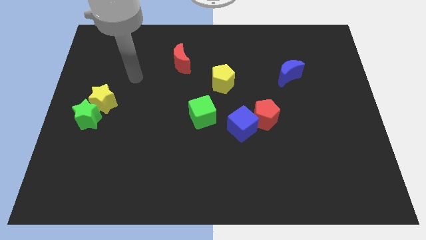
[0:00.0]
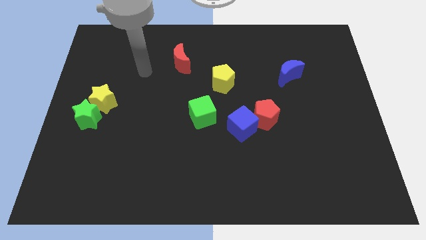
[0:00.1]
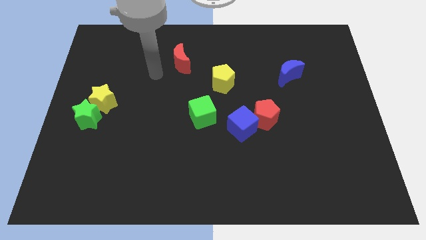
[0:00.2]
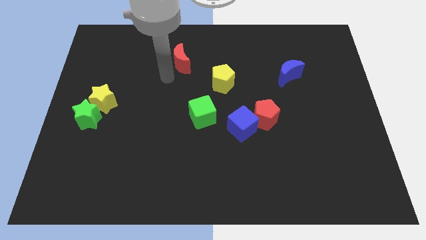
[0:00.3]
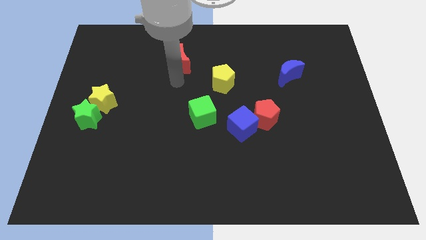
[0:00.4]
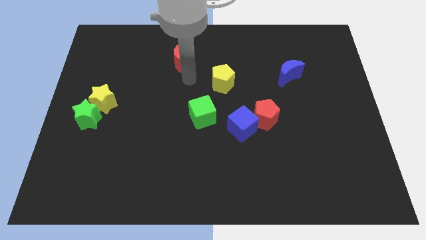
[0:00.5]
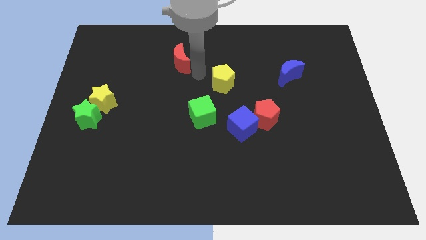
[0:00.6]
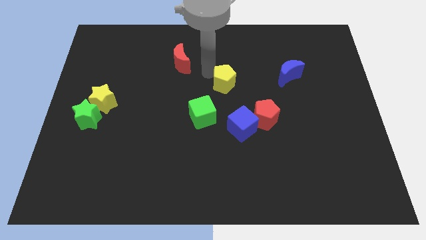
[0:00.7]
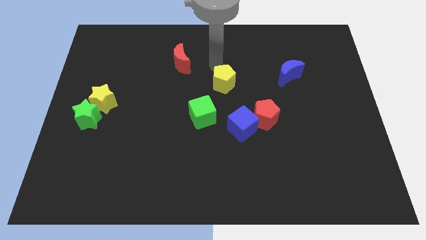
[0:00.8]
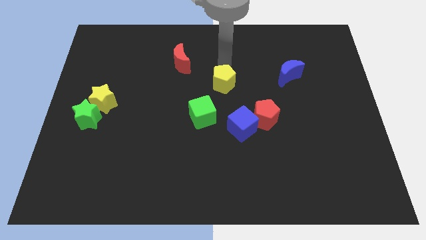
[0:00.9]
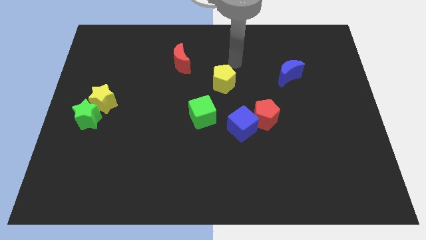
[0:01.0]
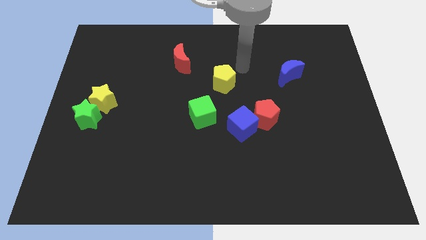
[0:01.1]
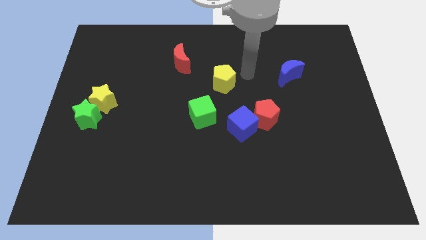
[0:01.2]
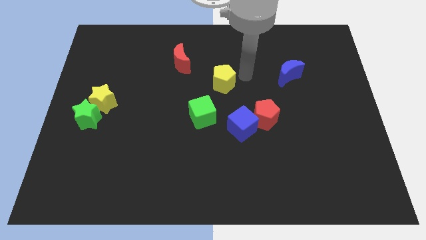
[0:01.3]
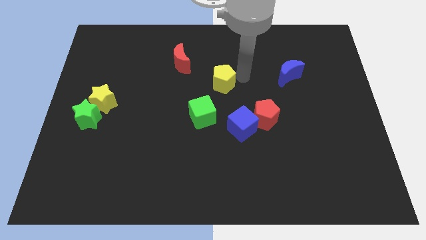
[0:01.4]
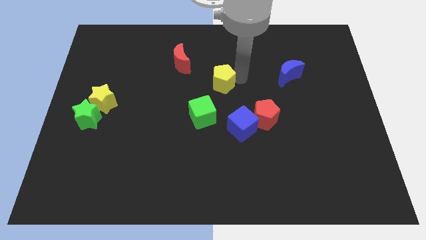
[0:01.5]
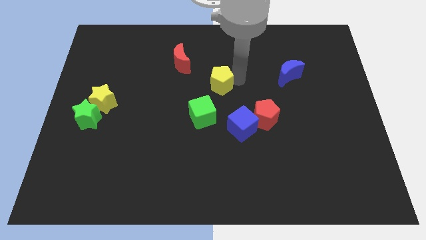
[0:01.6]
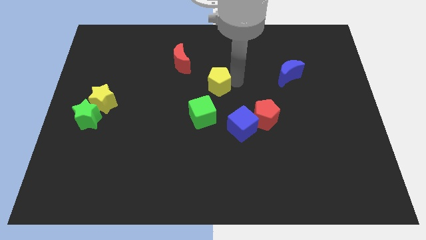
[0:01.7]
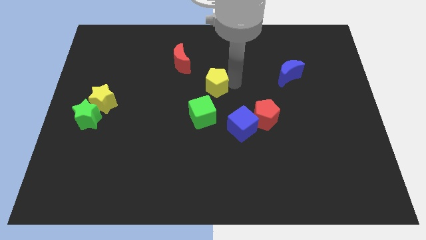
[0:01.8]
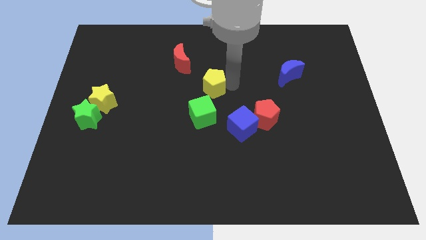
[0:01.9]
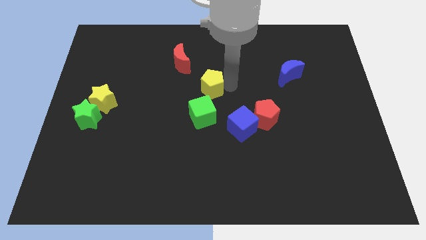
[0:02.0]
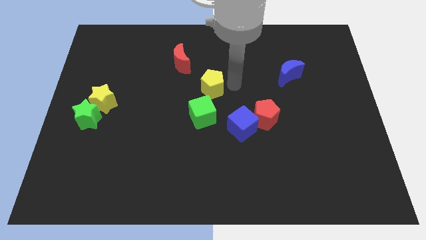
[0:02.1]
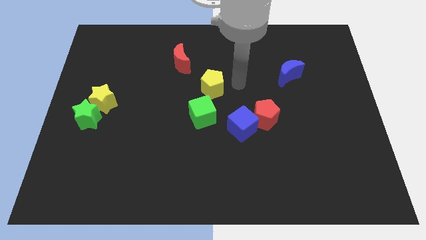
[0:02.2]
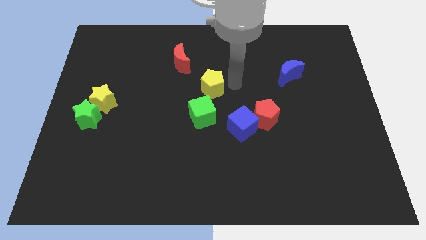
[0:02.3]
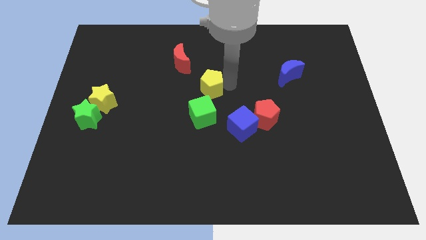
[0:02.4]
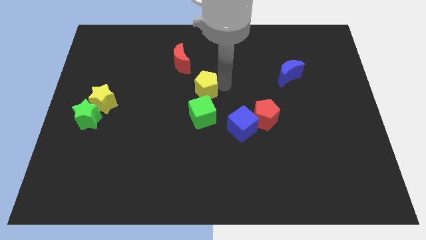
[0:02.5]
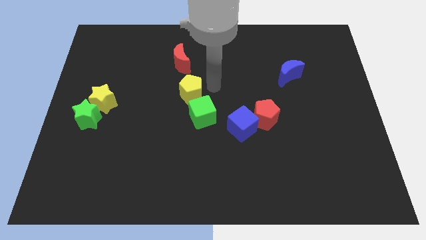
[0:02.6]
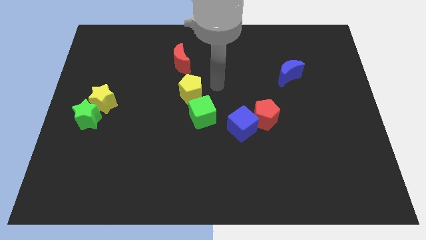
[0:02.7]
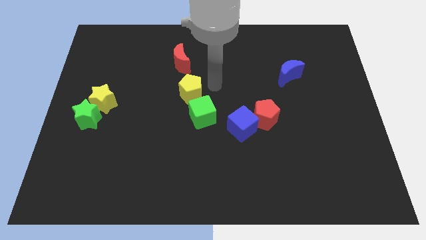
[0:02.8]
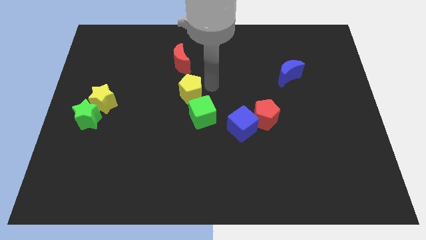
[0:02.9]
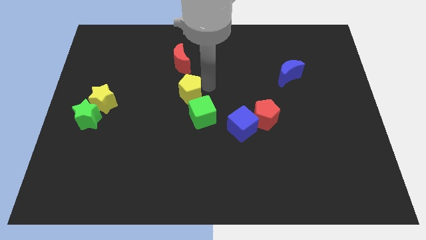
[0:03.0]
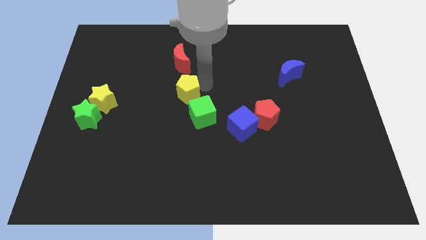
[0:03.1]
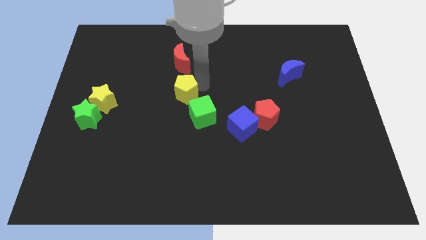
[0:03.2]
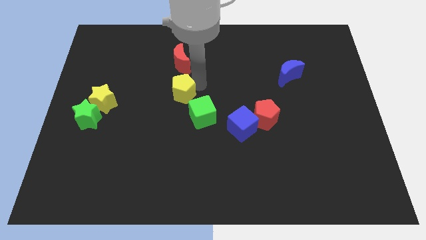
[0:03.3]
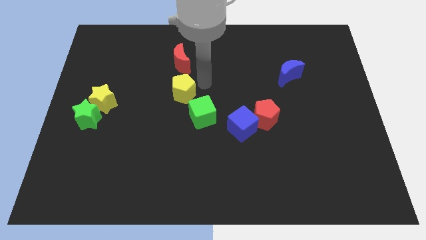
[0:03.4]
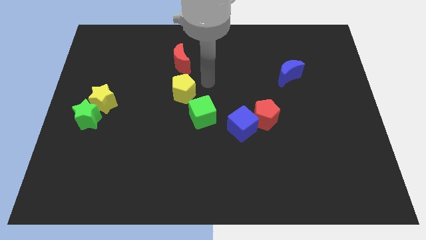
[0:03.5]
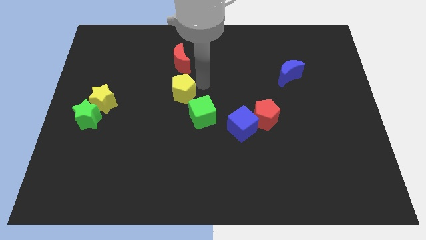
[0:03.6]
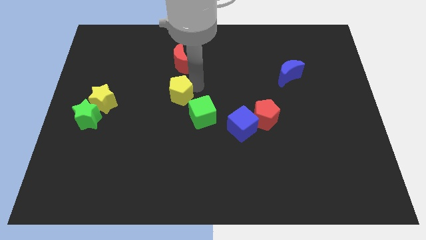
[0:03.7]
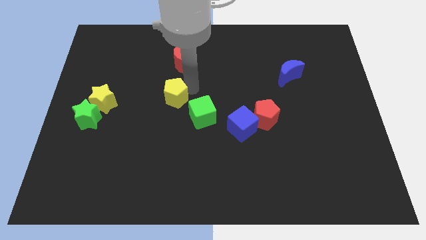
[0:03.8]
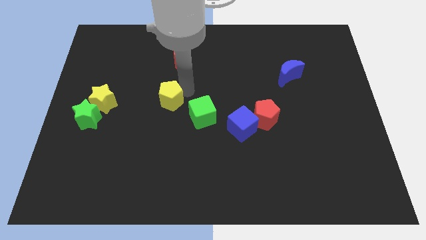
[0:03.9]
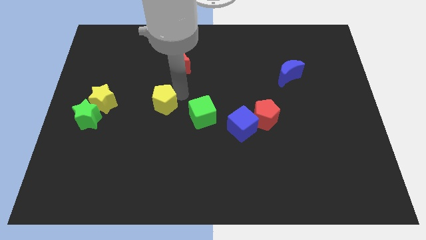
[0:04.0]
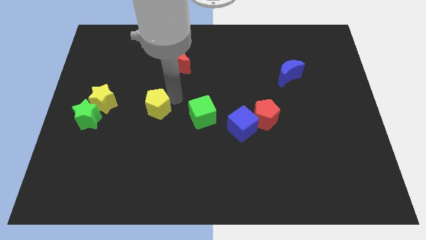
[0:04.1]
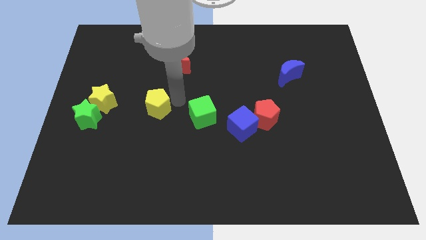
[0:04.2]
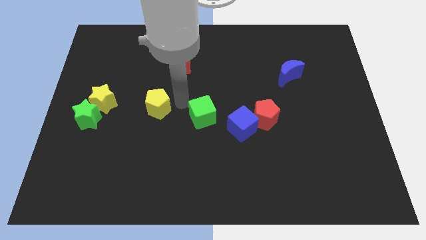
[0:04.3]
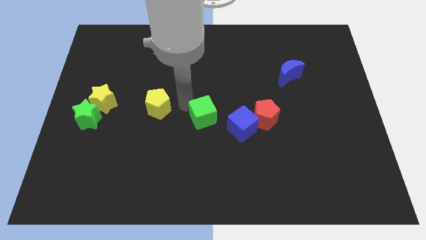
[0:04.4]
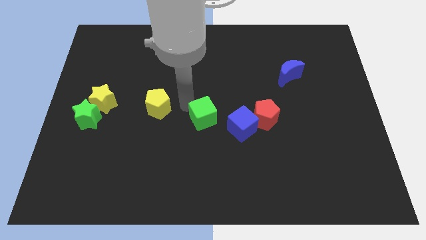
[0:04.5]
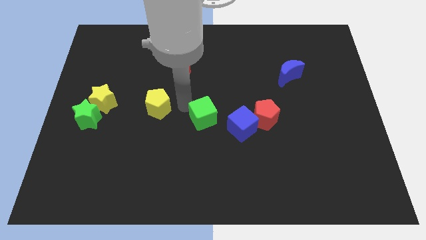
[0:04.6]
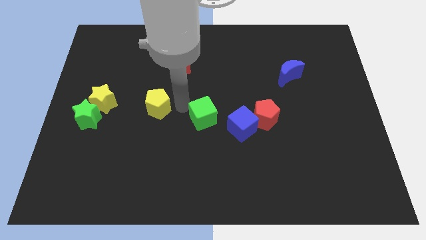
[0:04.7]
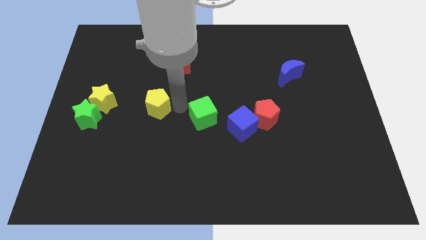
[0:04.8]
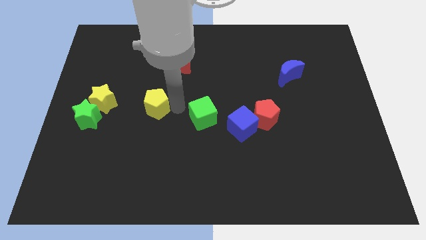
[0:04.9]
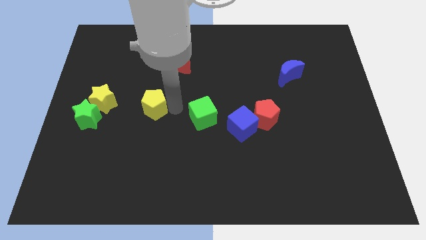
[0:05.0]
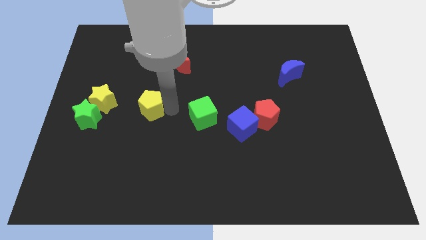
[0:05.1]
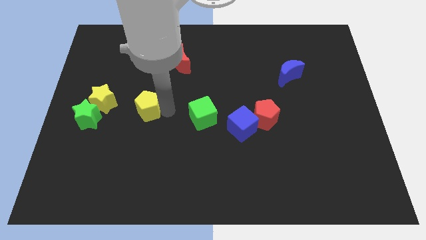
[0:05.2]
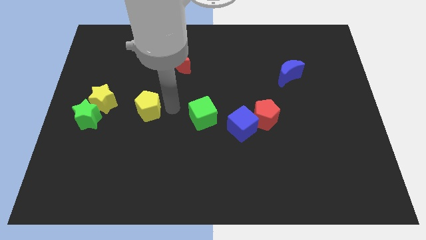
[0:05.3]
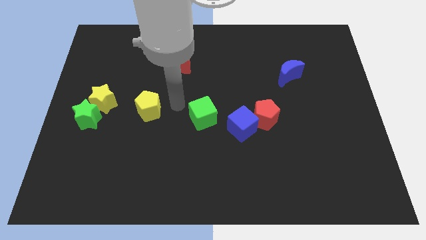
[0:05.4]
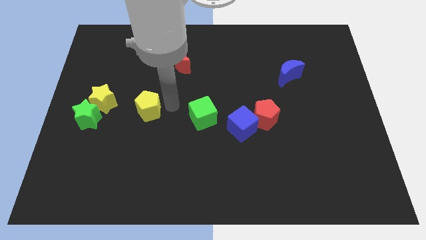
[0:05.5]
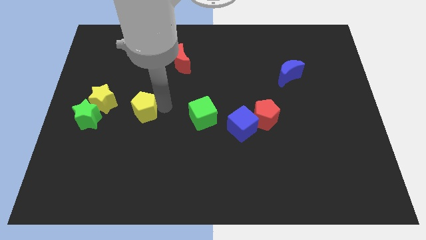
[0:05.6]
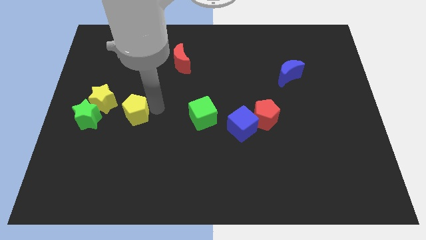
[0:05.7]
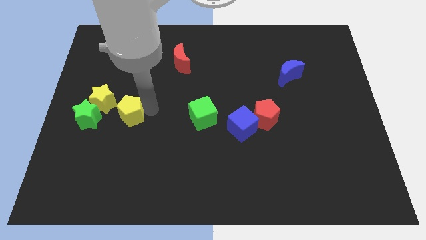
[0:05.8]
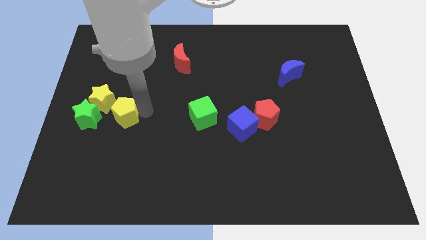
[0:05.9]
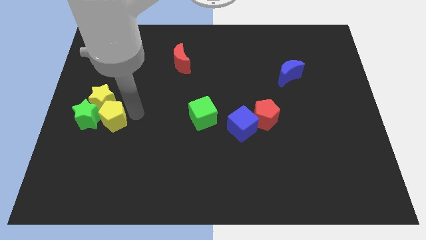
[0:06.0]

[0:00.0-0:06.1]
move the yellow pentagon close to the green star

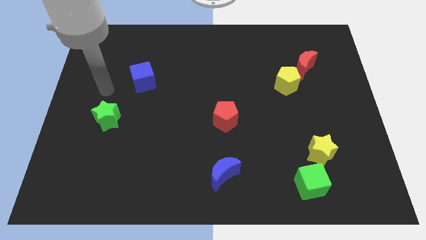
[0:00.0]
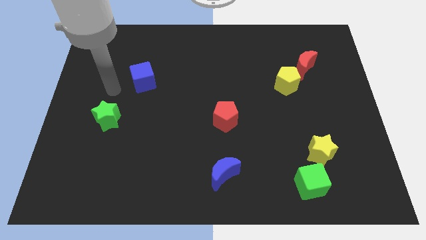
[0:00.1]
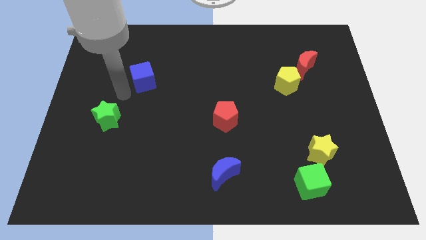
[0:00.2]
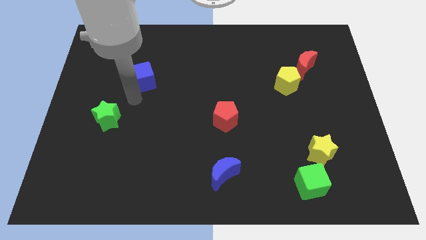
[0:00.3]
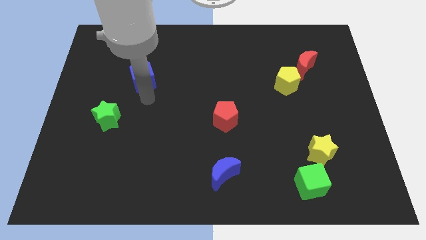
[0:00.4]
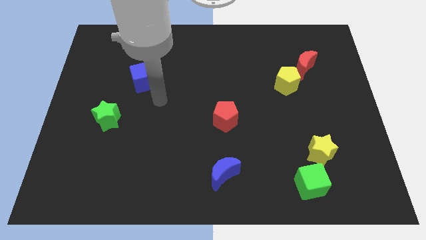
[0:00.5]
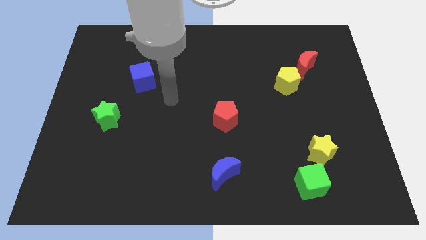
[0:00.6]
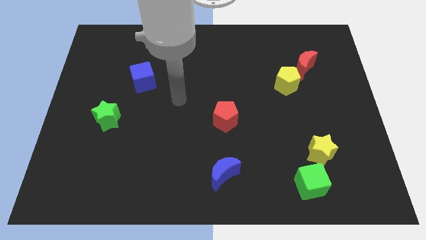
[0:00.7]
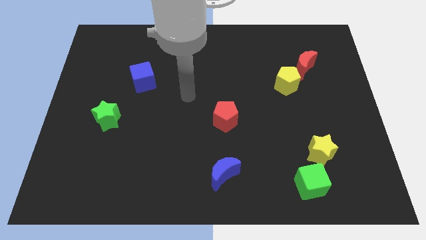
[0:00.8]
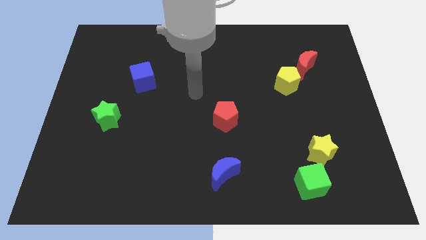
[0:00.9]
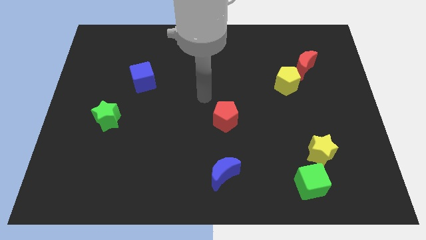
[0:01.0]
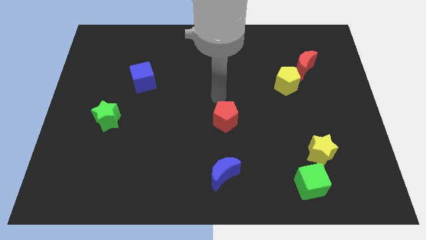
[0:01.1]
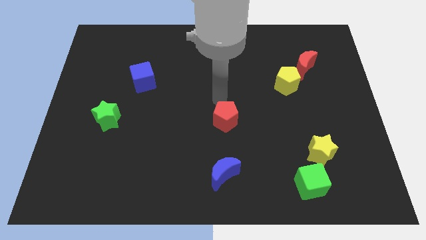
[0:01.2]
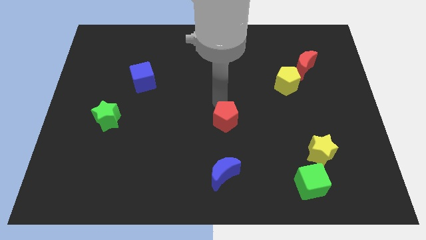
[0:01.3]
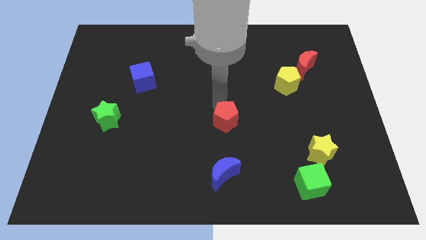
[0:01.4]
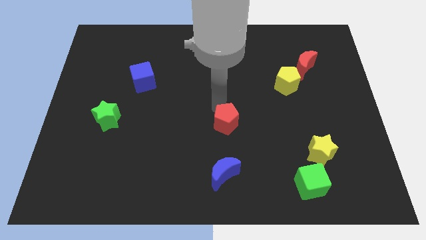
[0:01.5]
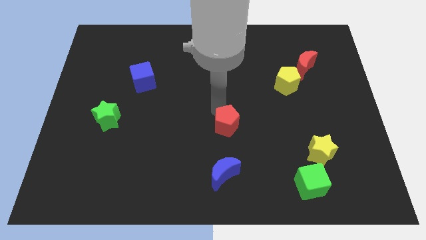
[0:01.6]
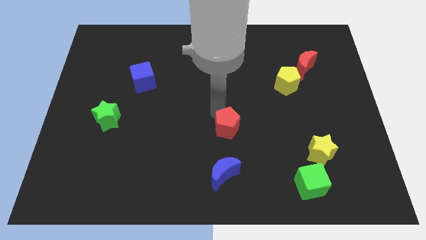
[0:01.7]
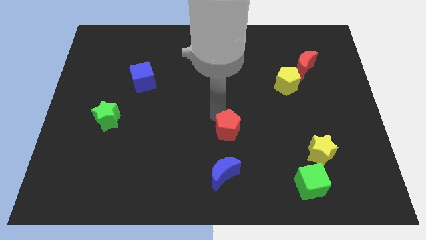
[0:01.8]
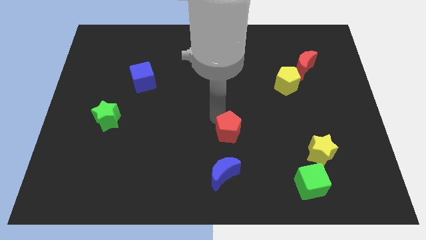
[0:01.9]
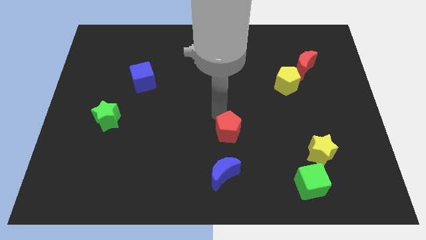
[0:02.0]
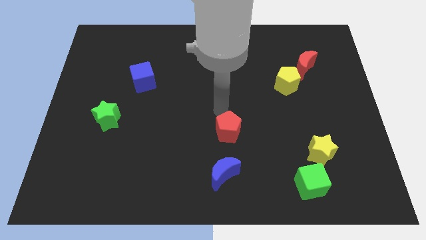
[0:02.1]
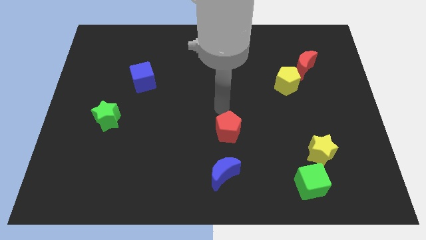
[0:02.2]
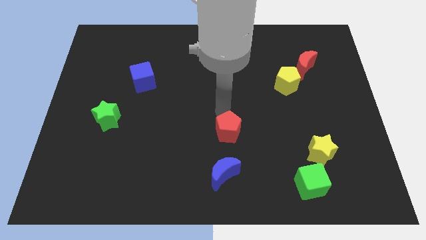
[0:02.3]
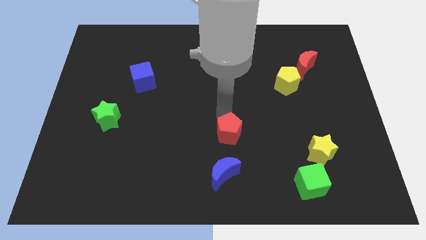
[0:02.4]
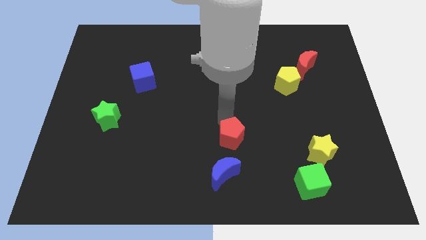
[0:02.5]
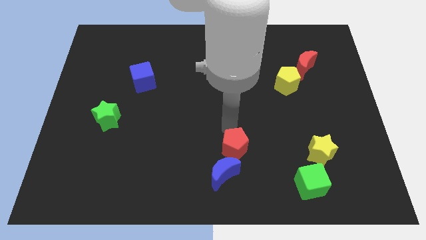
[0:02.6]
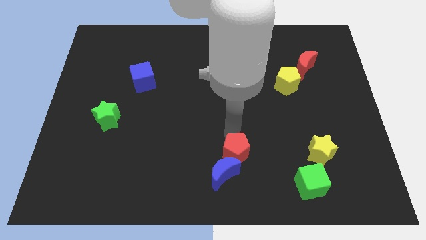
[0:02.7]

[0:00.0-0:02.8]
move the red pentagon to the blue moon
